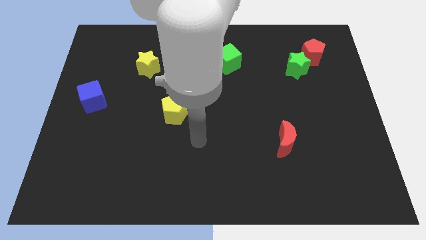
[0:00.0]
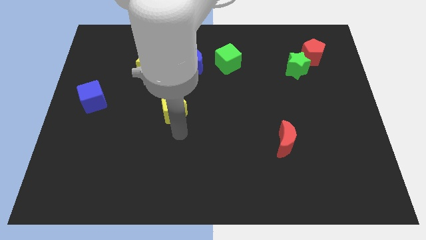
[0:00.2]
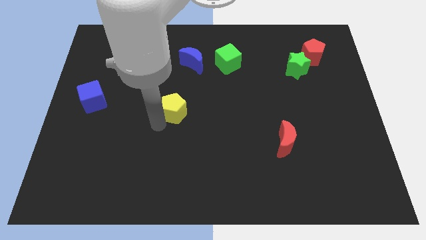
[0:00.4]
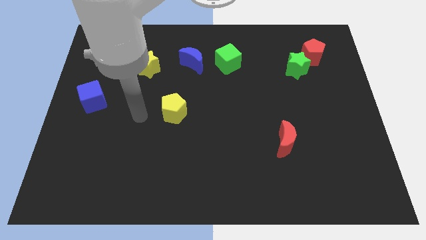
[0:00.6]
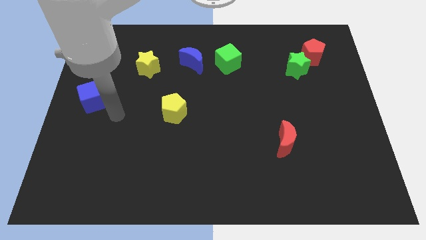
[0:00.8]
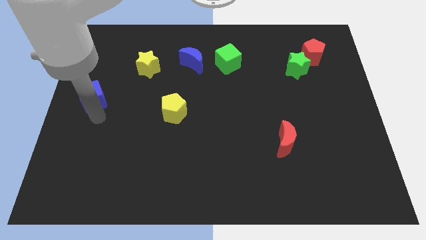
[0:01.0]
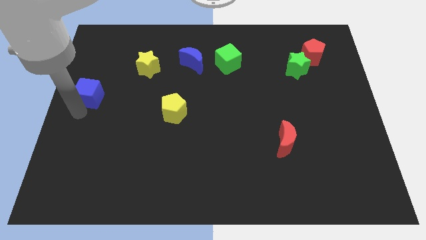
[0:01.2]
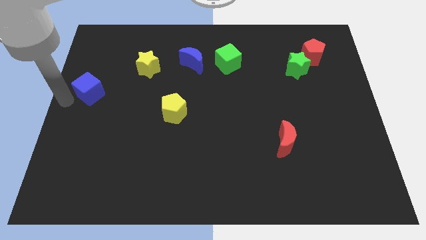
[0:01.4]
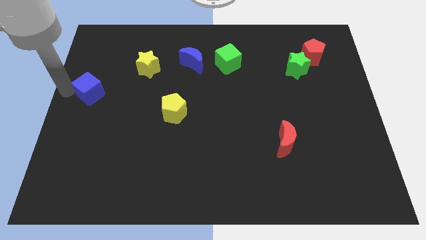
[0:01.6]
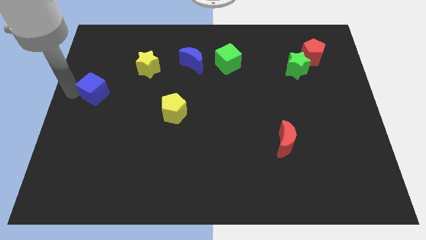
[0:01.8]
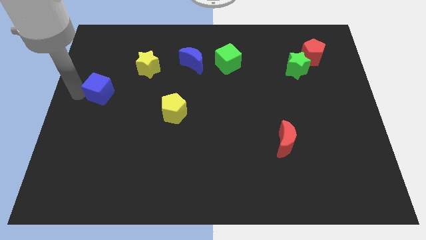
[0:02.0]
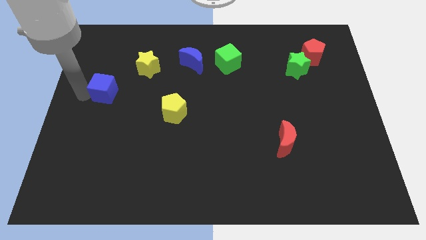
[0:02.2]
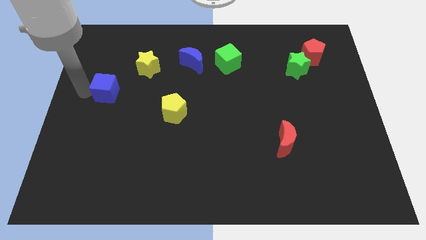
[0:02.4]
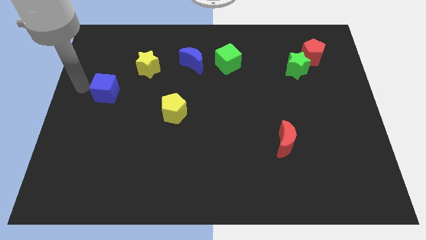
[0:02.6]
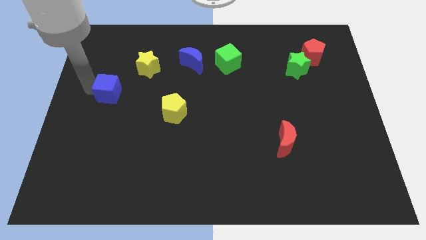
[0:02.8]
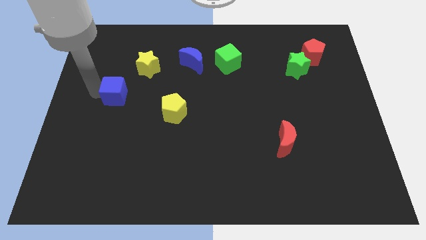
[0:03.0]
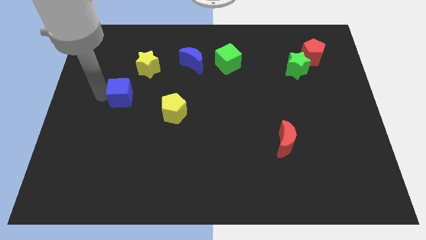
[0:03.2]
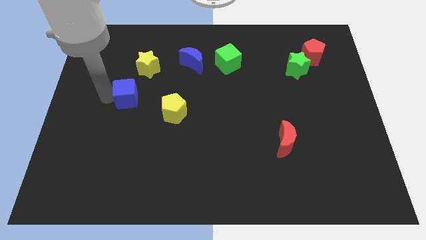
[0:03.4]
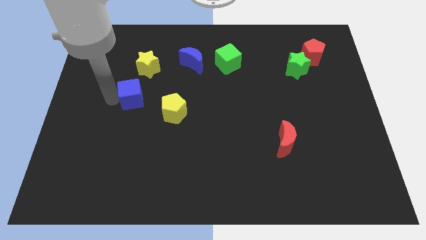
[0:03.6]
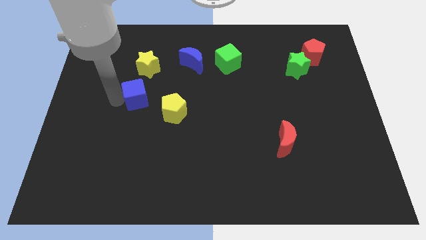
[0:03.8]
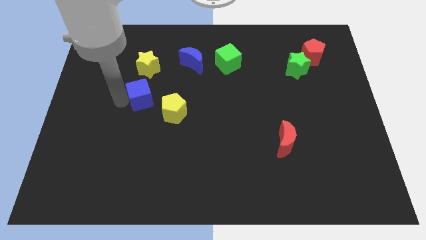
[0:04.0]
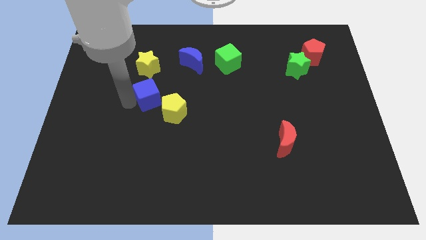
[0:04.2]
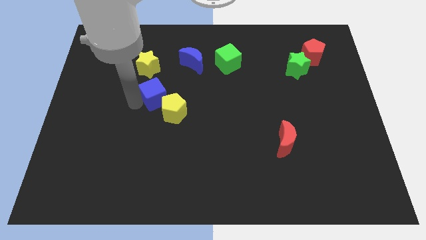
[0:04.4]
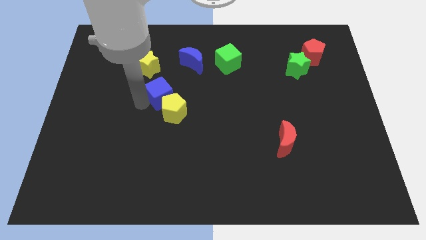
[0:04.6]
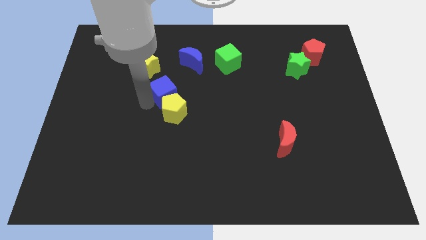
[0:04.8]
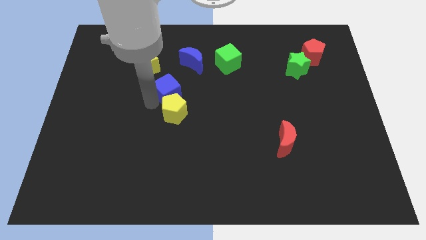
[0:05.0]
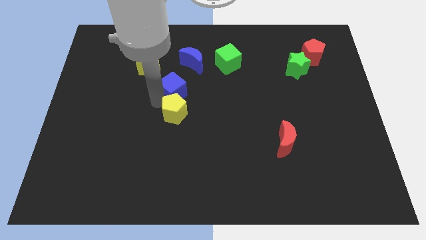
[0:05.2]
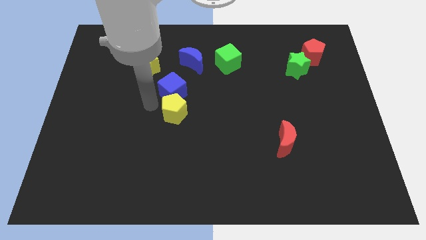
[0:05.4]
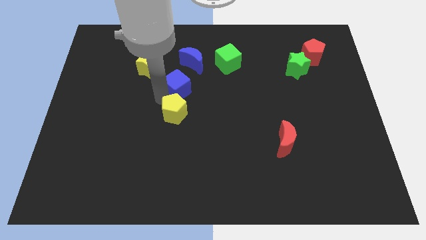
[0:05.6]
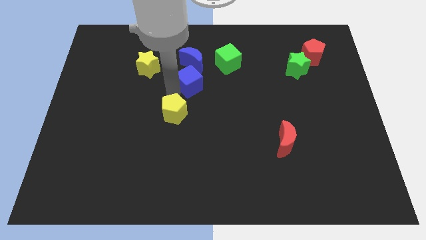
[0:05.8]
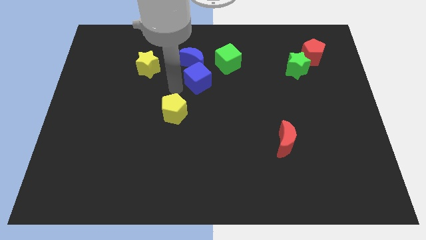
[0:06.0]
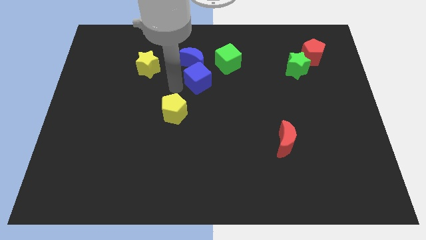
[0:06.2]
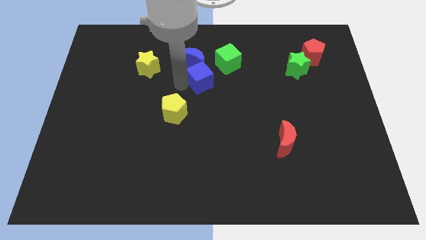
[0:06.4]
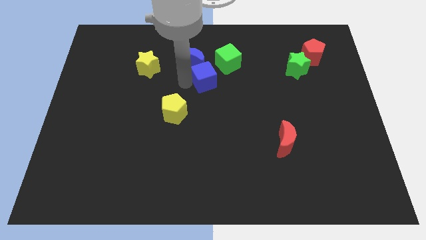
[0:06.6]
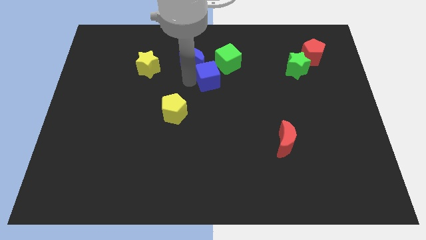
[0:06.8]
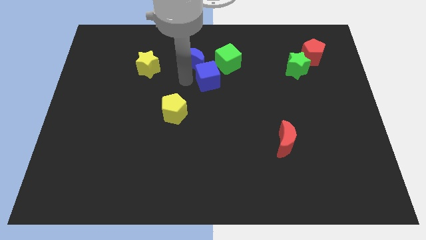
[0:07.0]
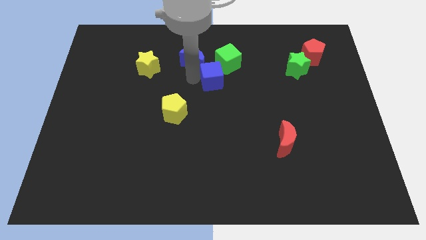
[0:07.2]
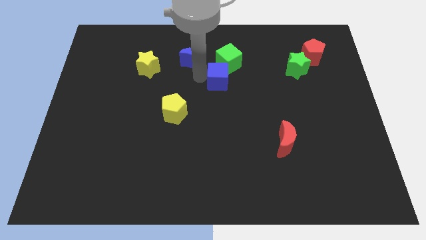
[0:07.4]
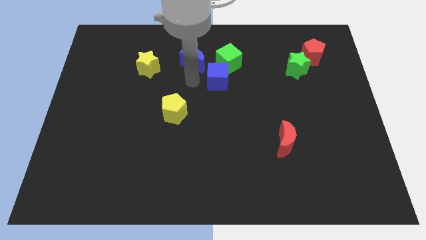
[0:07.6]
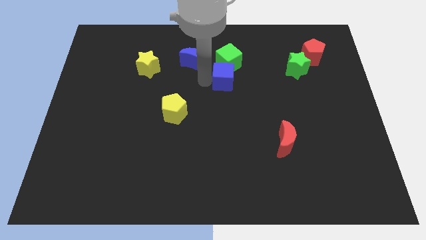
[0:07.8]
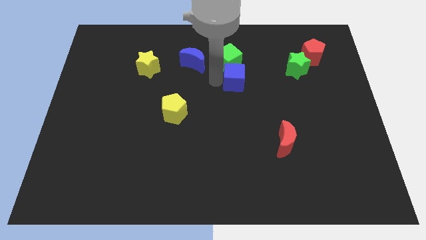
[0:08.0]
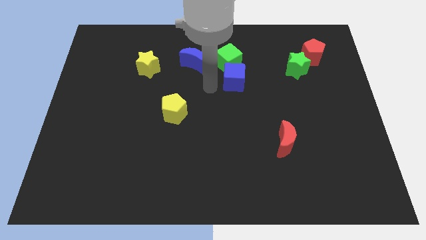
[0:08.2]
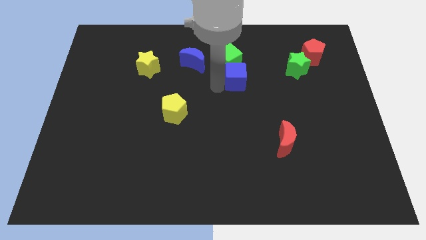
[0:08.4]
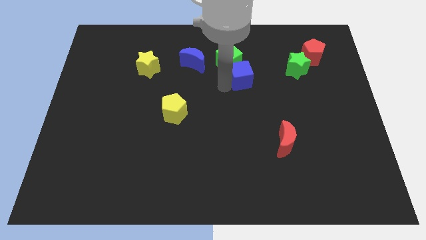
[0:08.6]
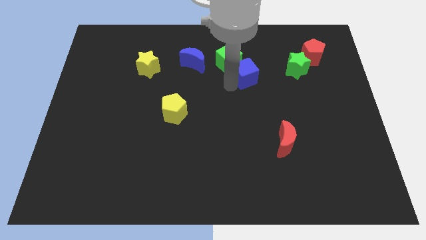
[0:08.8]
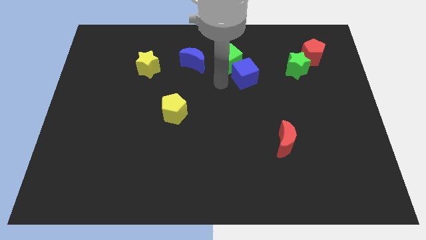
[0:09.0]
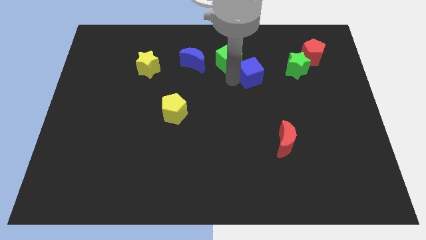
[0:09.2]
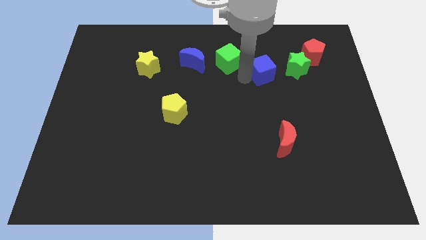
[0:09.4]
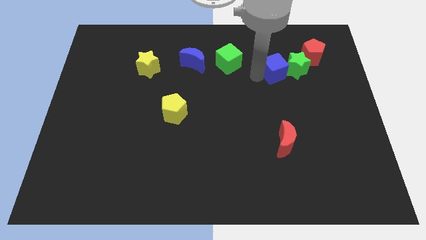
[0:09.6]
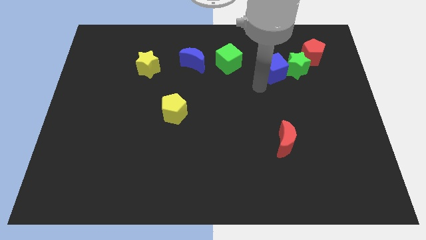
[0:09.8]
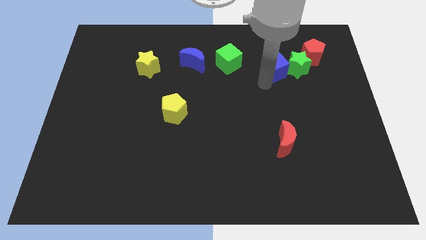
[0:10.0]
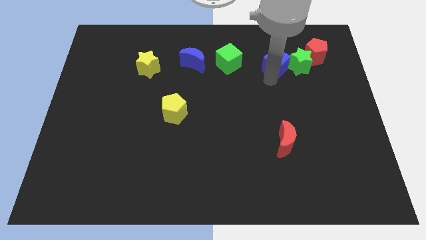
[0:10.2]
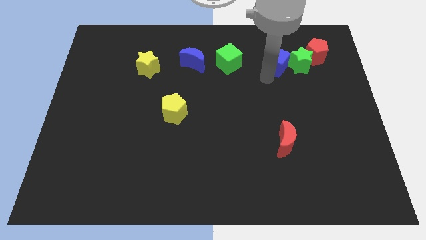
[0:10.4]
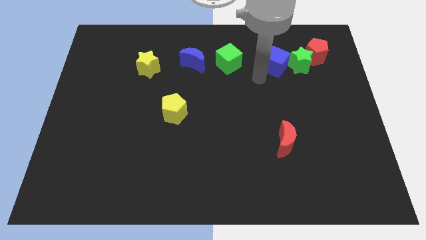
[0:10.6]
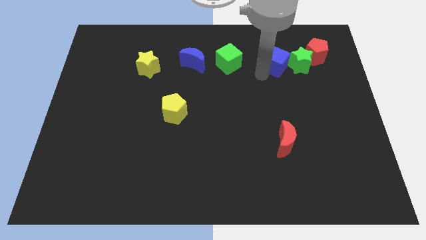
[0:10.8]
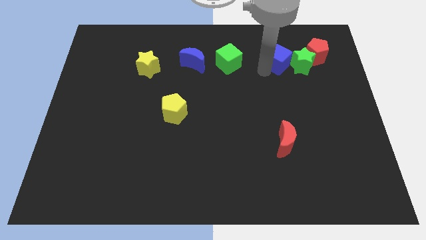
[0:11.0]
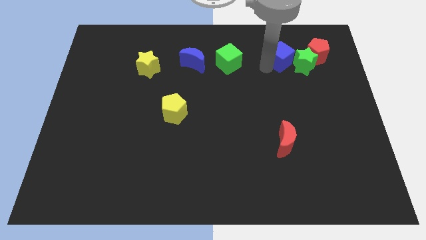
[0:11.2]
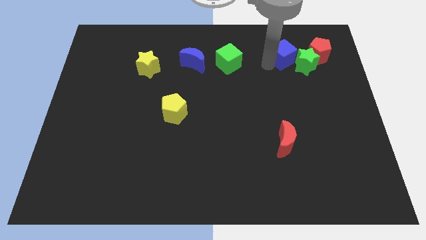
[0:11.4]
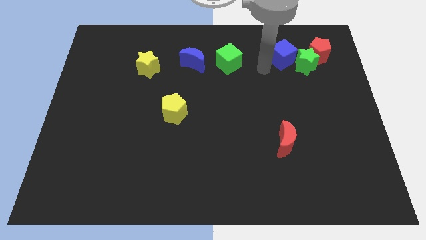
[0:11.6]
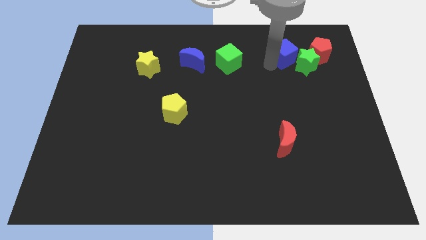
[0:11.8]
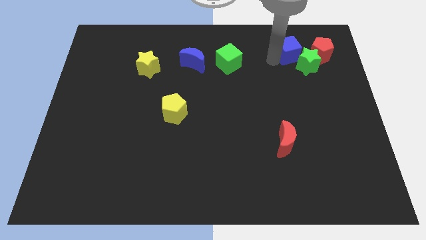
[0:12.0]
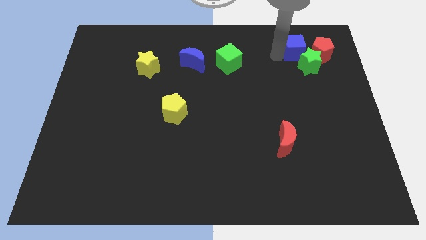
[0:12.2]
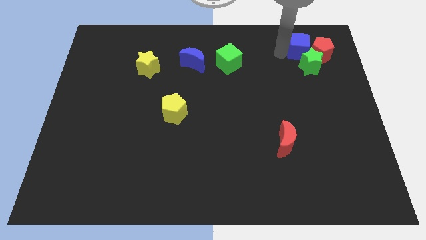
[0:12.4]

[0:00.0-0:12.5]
put the blue cube next to the red pentagon

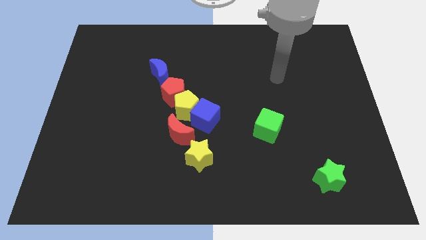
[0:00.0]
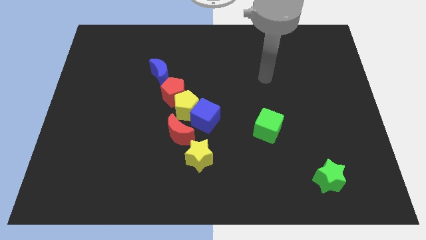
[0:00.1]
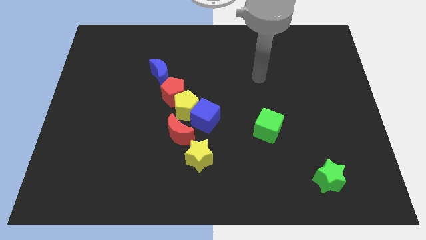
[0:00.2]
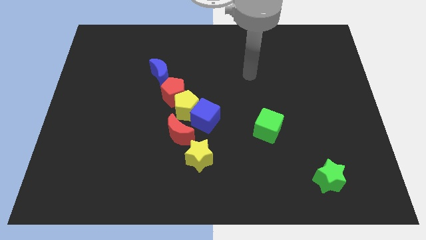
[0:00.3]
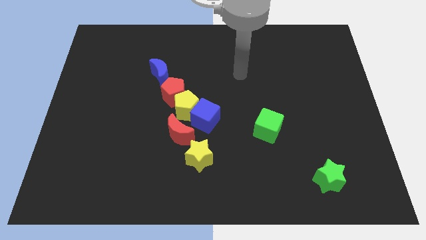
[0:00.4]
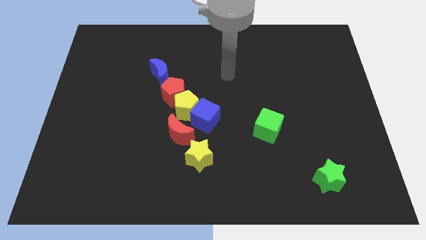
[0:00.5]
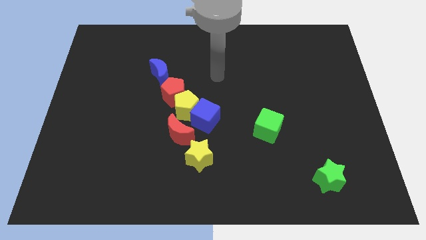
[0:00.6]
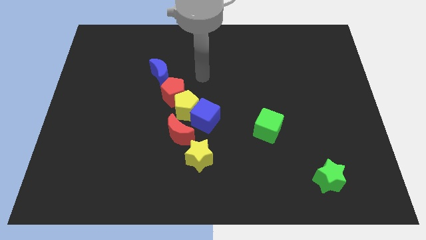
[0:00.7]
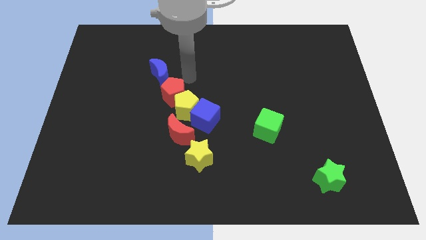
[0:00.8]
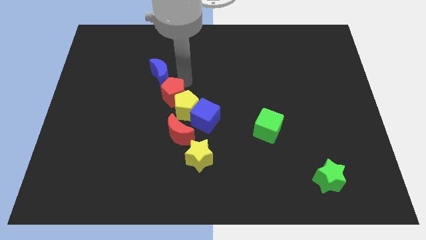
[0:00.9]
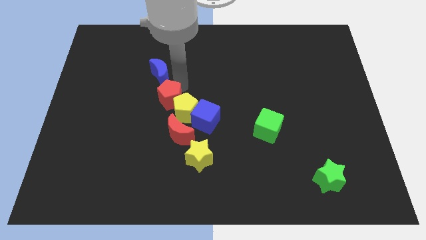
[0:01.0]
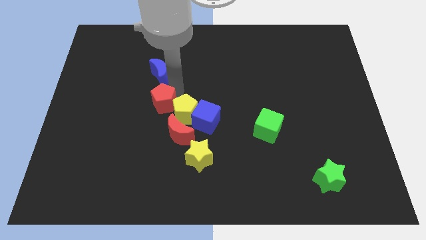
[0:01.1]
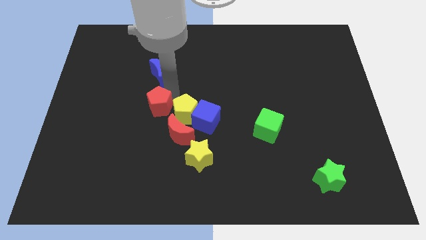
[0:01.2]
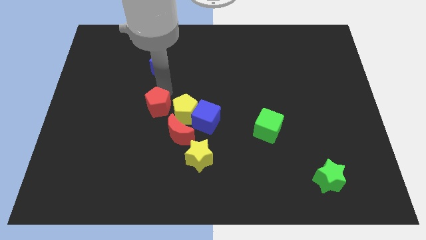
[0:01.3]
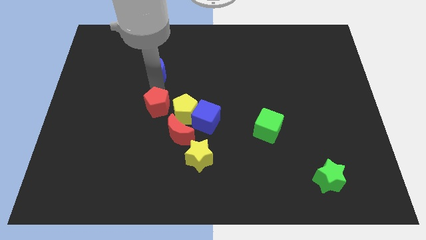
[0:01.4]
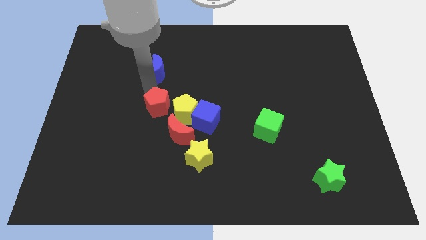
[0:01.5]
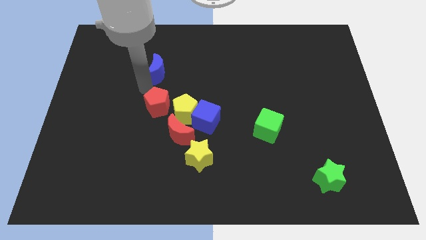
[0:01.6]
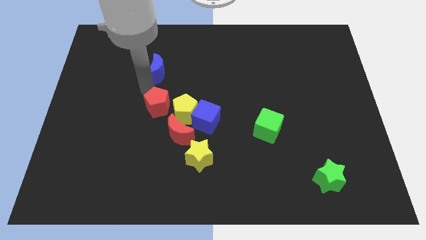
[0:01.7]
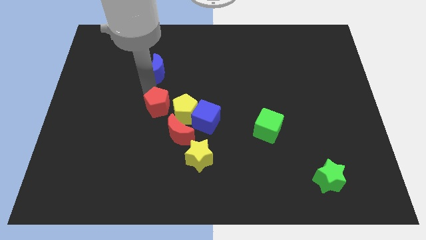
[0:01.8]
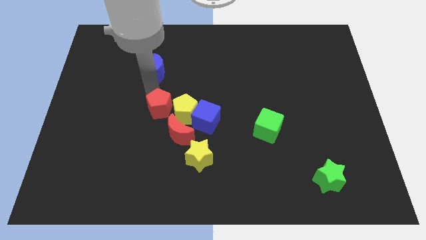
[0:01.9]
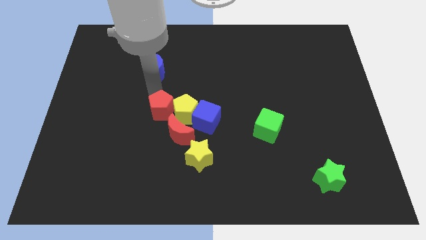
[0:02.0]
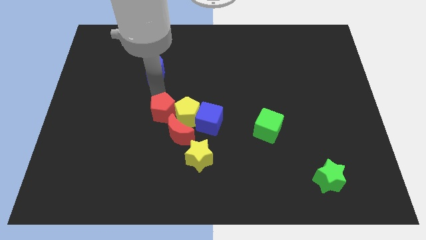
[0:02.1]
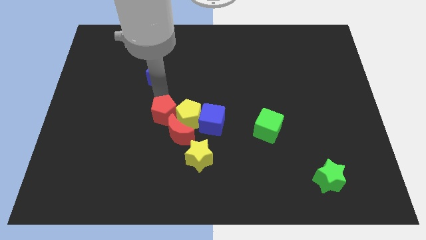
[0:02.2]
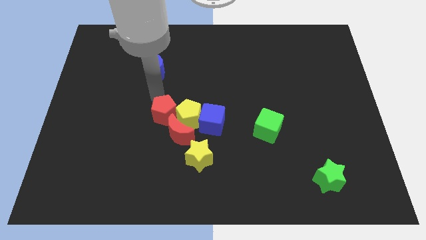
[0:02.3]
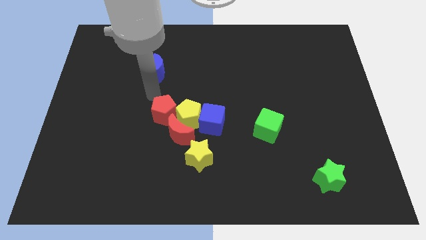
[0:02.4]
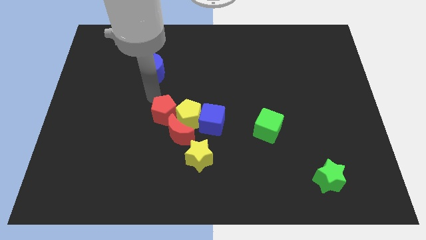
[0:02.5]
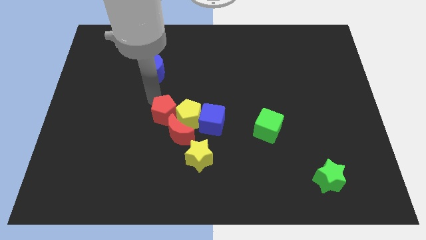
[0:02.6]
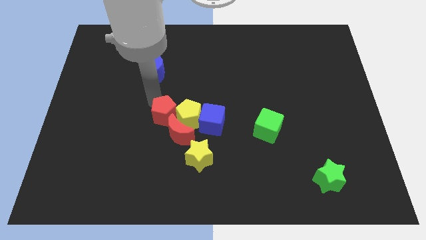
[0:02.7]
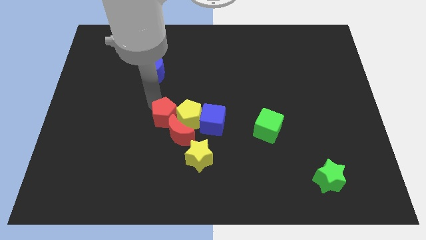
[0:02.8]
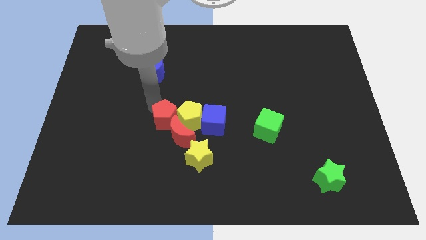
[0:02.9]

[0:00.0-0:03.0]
push the red pentagon to the red moon
